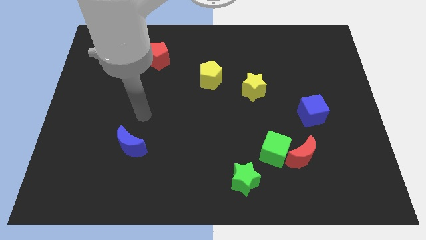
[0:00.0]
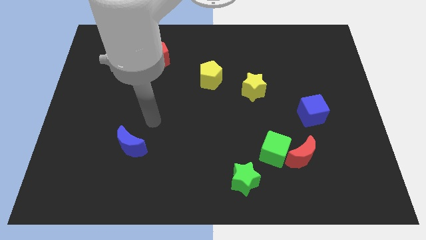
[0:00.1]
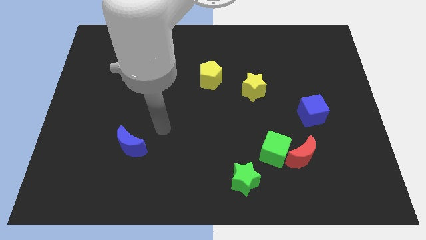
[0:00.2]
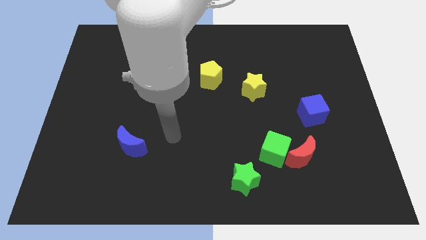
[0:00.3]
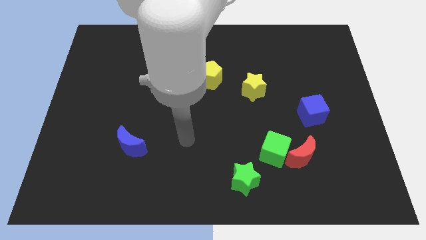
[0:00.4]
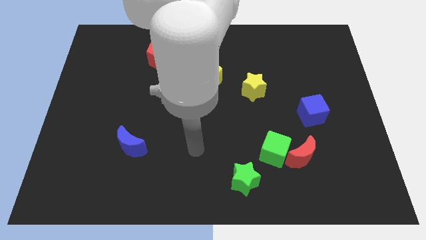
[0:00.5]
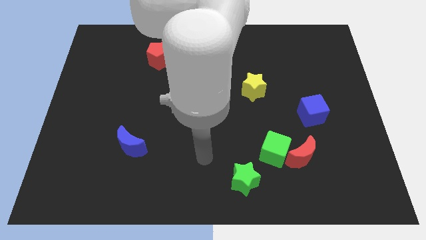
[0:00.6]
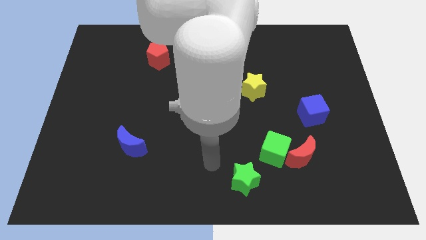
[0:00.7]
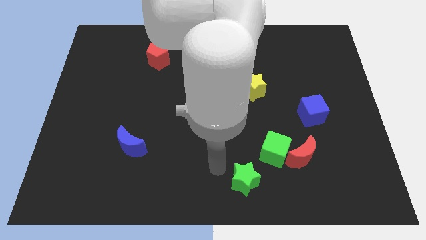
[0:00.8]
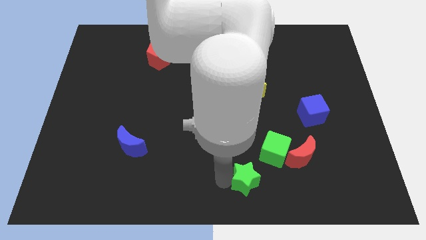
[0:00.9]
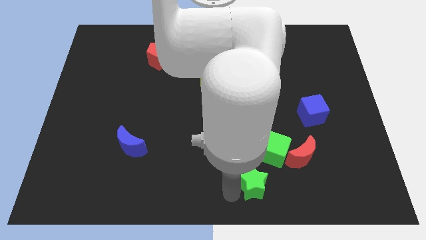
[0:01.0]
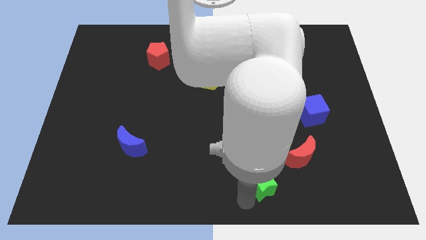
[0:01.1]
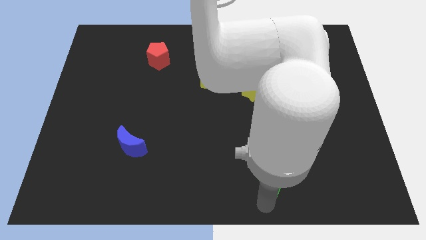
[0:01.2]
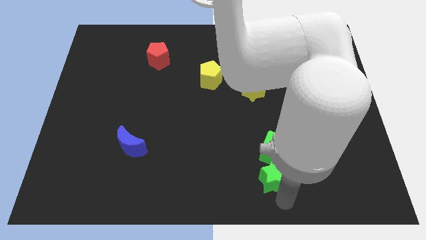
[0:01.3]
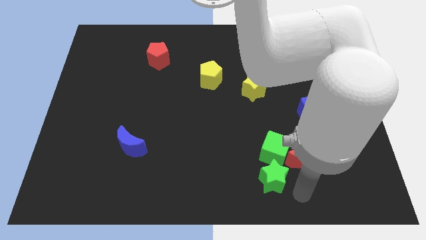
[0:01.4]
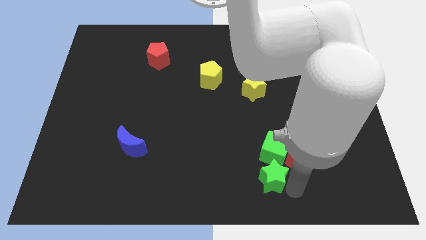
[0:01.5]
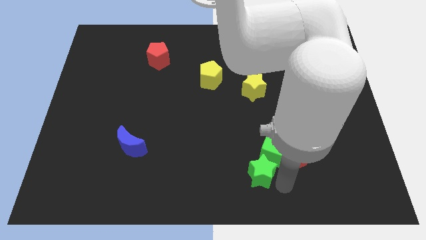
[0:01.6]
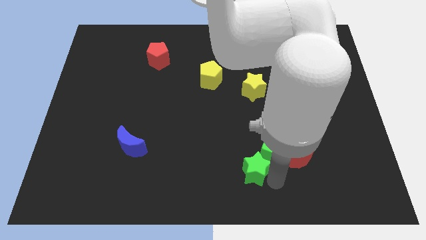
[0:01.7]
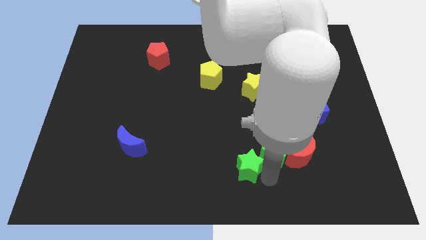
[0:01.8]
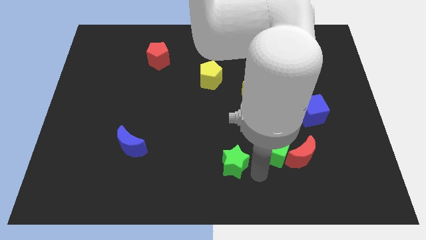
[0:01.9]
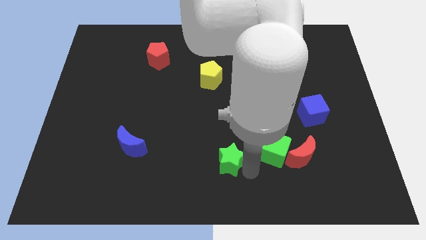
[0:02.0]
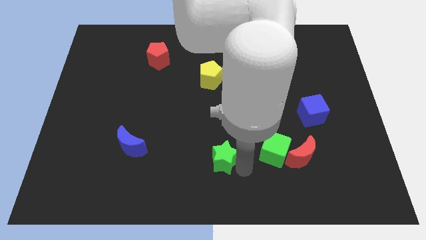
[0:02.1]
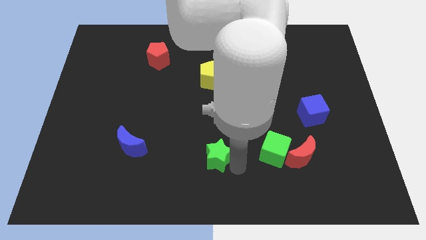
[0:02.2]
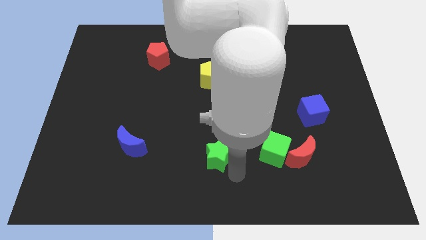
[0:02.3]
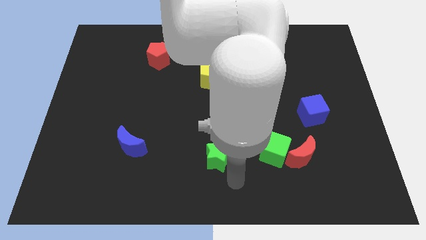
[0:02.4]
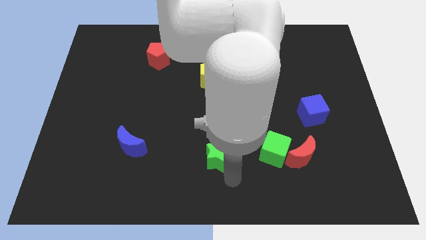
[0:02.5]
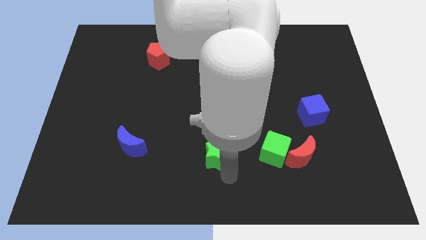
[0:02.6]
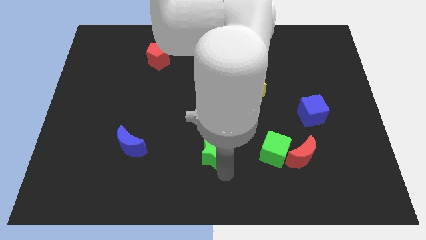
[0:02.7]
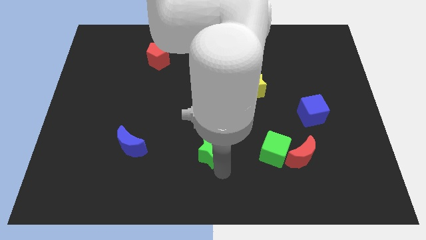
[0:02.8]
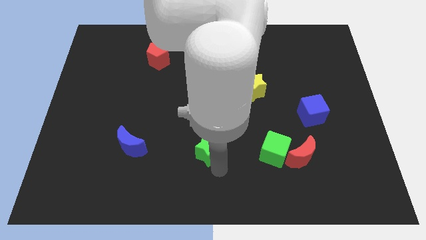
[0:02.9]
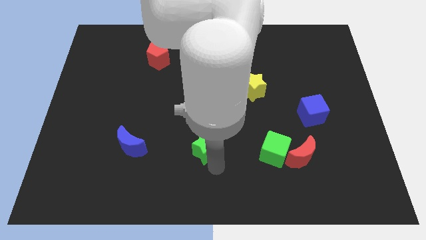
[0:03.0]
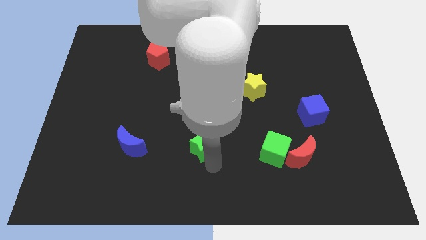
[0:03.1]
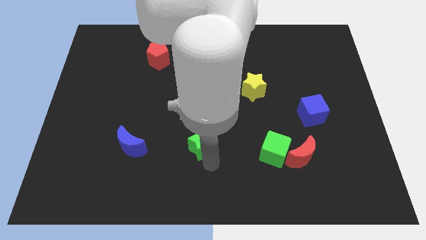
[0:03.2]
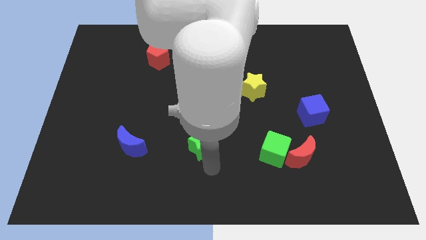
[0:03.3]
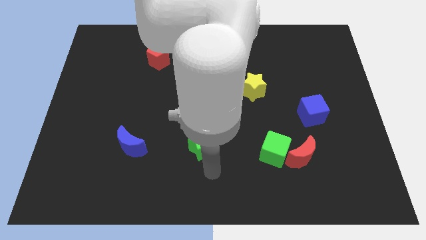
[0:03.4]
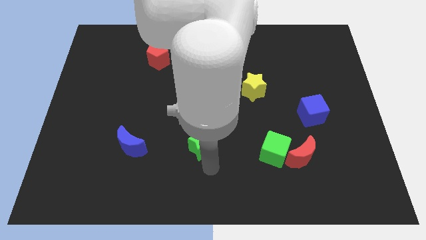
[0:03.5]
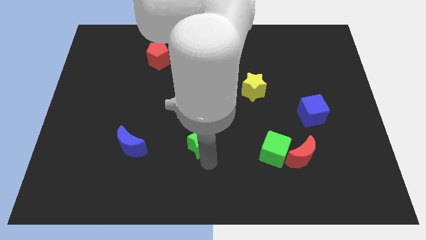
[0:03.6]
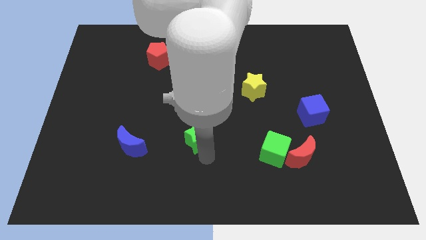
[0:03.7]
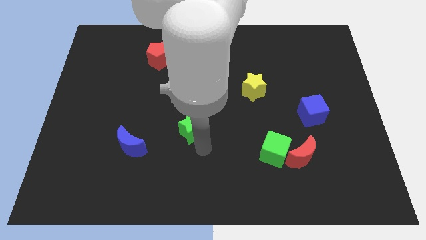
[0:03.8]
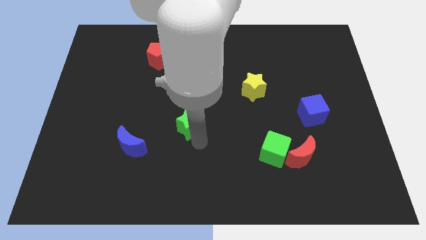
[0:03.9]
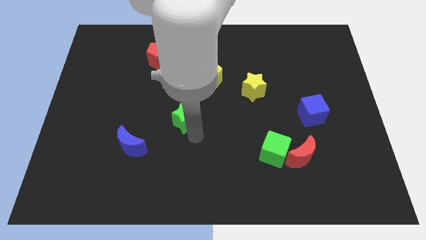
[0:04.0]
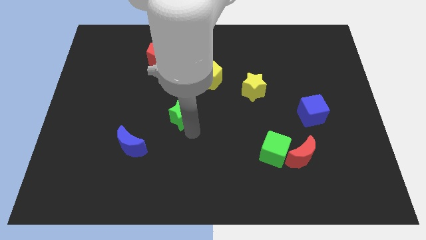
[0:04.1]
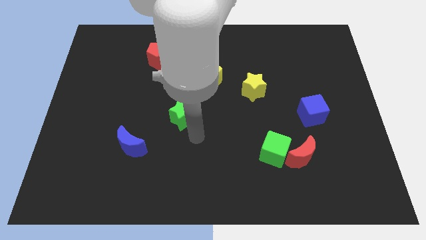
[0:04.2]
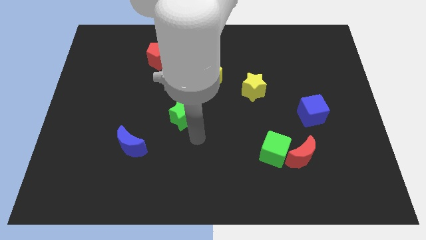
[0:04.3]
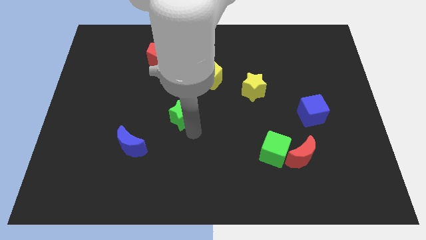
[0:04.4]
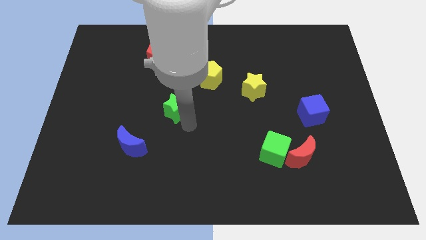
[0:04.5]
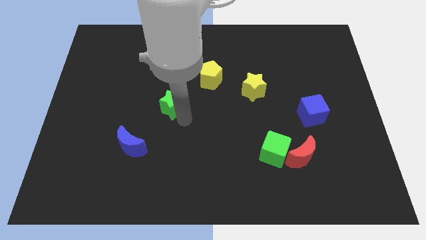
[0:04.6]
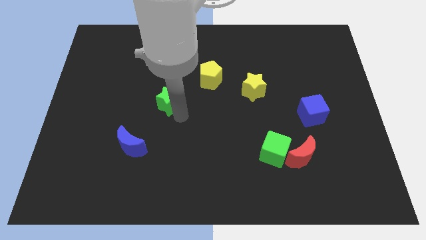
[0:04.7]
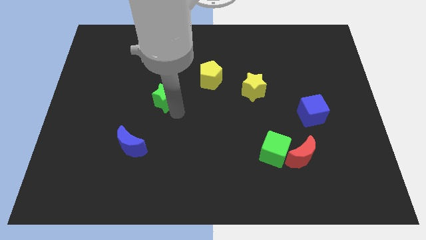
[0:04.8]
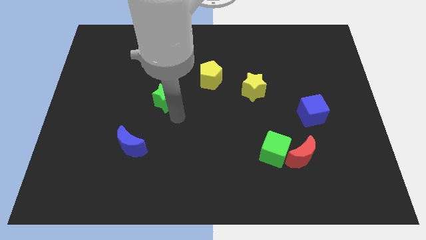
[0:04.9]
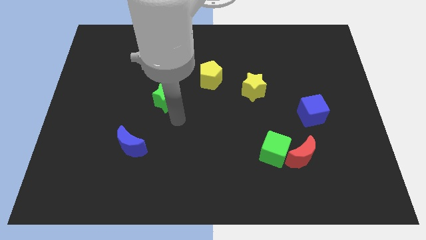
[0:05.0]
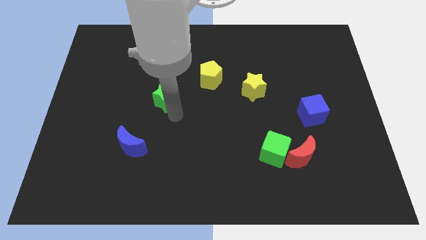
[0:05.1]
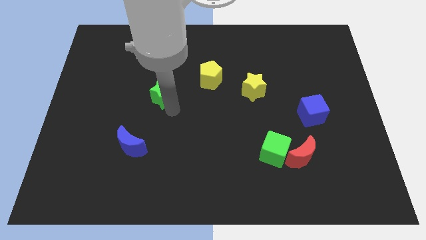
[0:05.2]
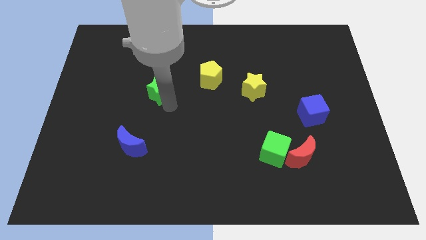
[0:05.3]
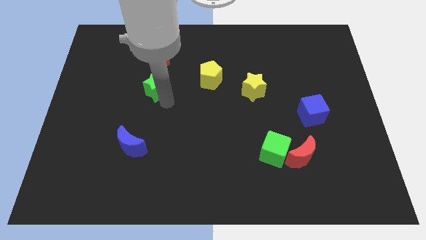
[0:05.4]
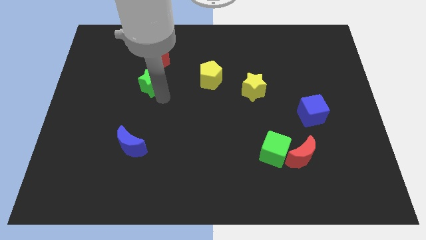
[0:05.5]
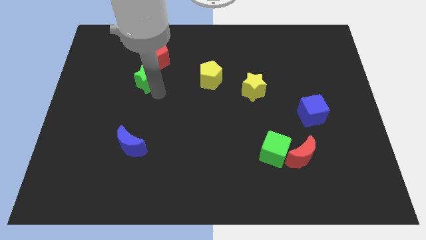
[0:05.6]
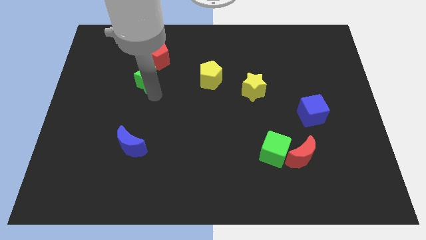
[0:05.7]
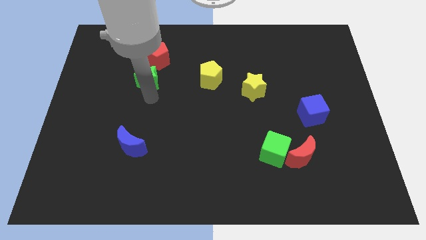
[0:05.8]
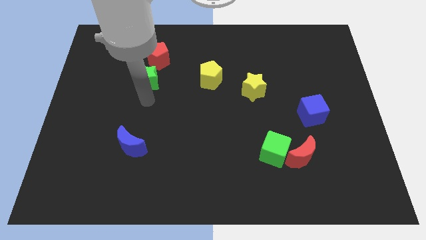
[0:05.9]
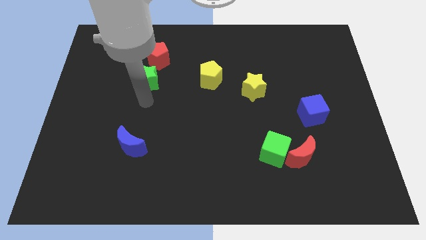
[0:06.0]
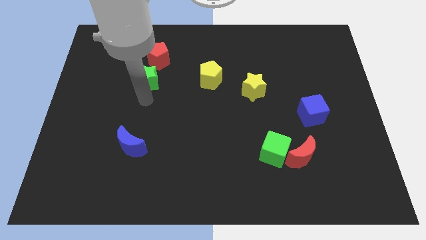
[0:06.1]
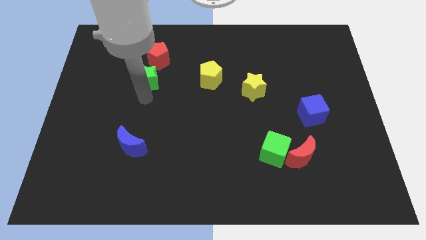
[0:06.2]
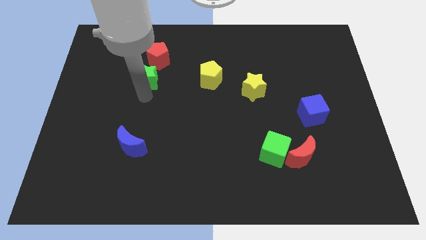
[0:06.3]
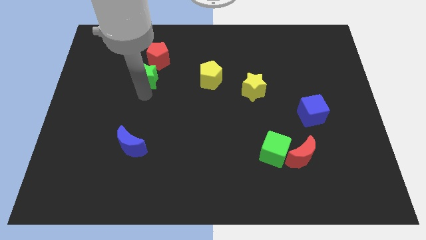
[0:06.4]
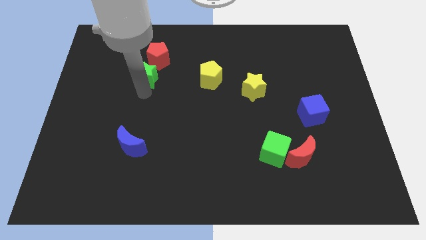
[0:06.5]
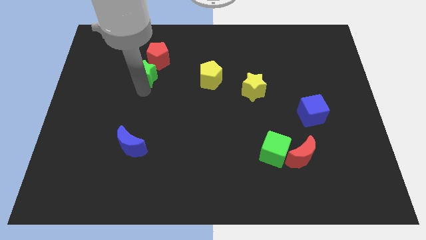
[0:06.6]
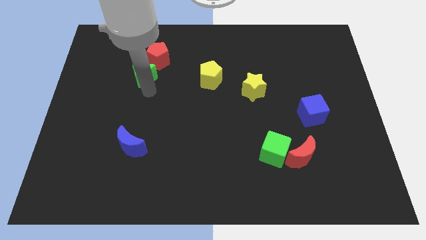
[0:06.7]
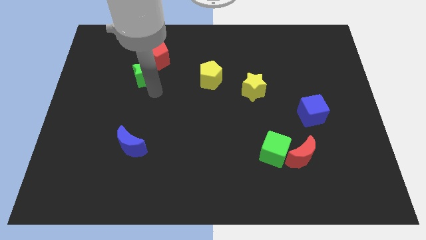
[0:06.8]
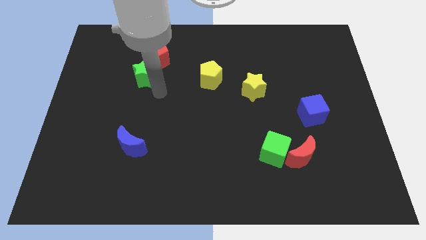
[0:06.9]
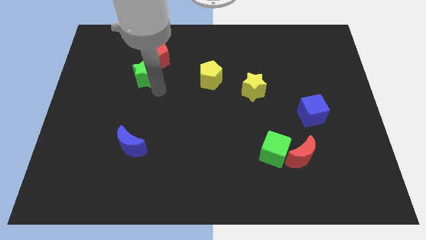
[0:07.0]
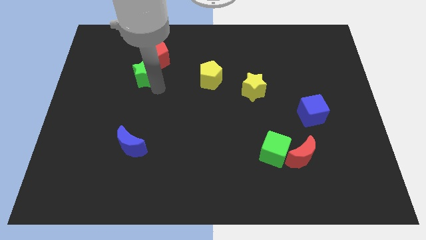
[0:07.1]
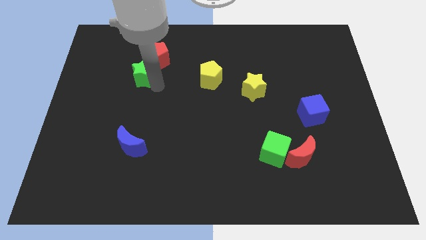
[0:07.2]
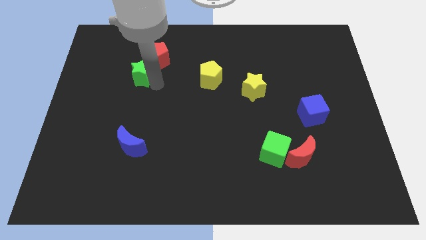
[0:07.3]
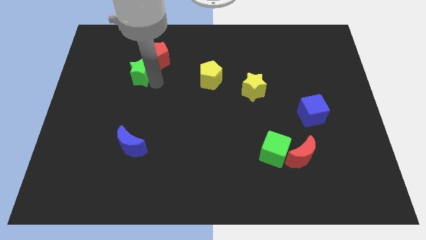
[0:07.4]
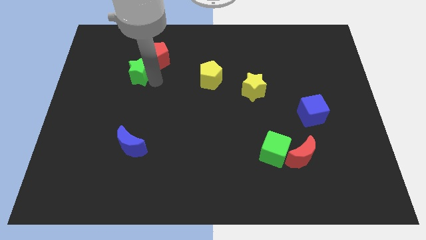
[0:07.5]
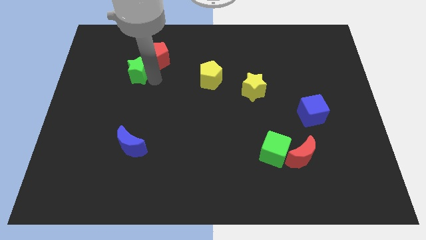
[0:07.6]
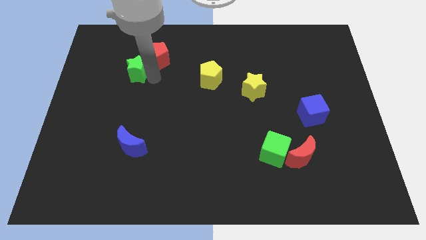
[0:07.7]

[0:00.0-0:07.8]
move the green star left of the red pentagon
